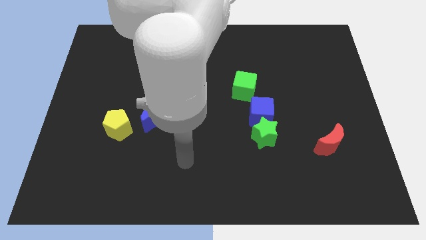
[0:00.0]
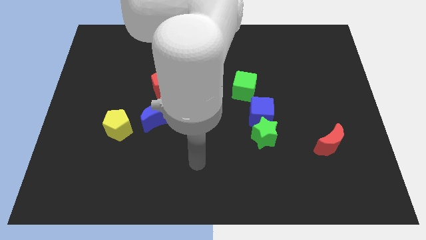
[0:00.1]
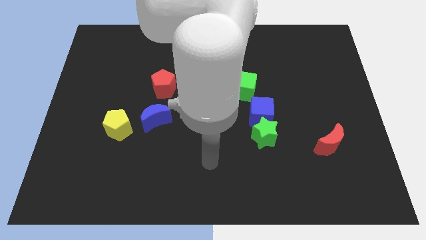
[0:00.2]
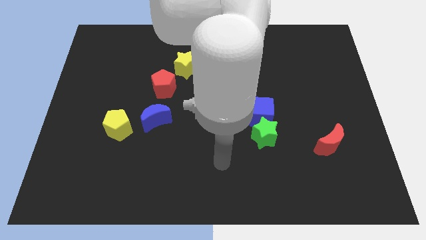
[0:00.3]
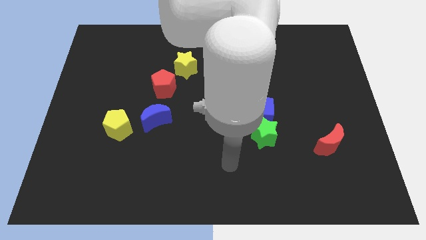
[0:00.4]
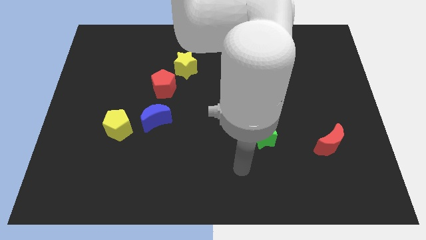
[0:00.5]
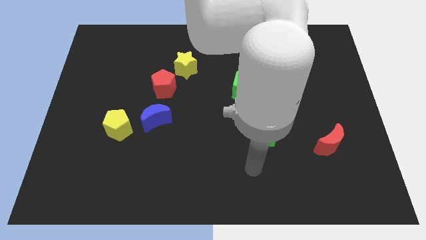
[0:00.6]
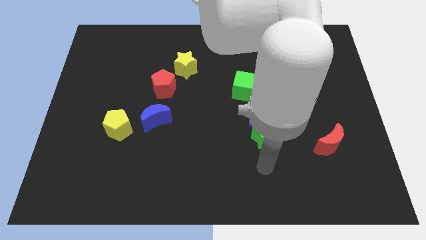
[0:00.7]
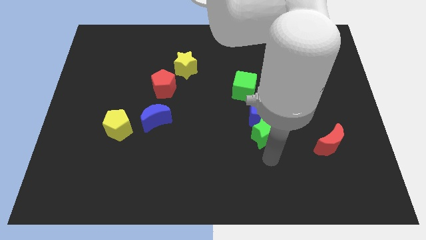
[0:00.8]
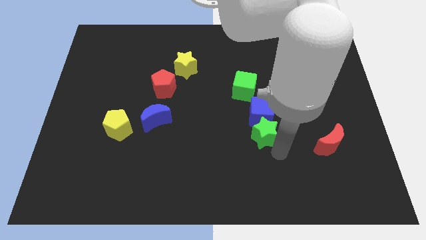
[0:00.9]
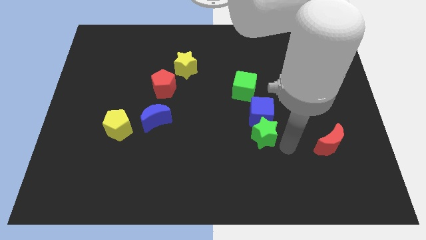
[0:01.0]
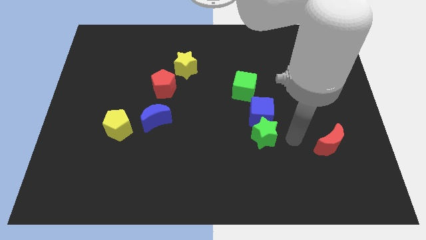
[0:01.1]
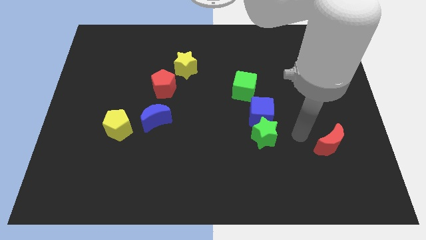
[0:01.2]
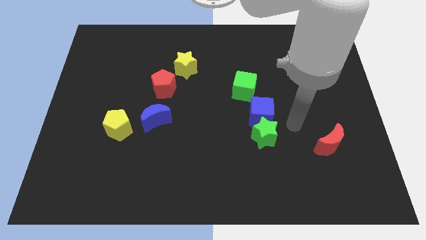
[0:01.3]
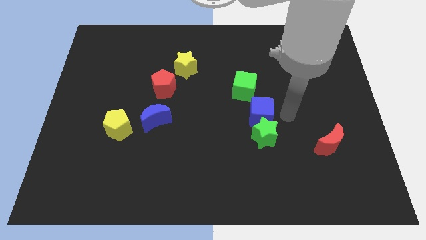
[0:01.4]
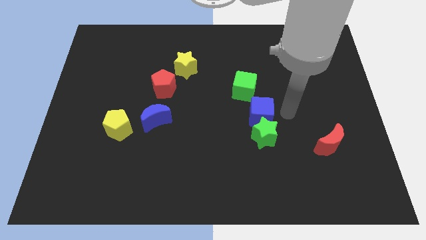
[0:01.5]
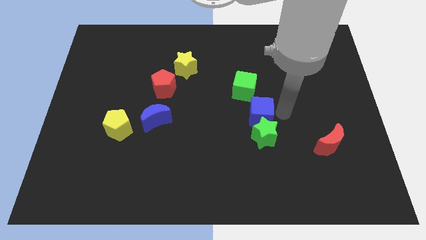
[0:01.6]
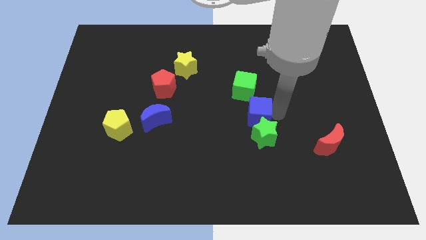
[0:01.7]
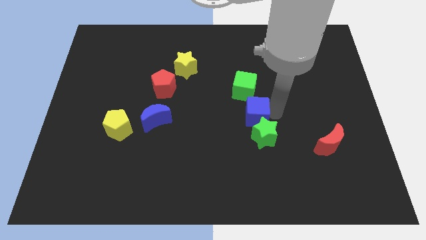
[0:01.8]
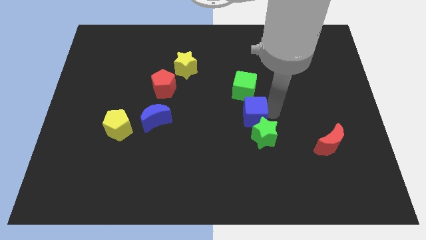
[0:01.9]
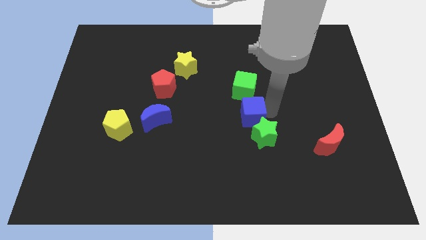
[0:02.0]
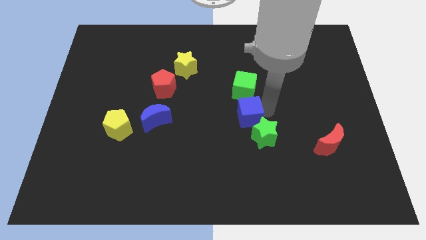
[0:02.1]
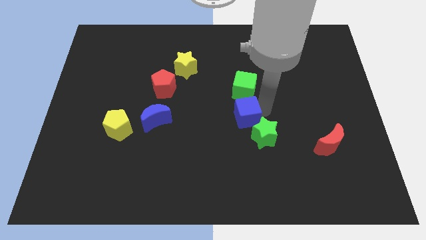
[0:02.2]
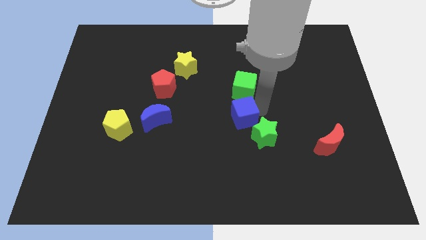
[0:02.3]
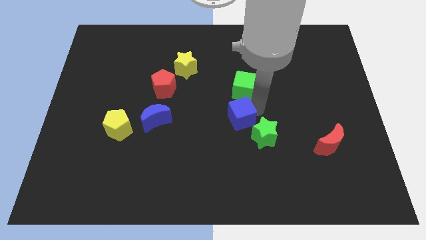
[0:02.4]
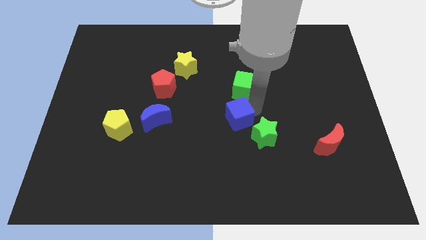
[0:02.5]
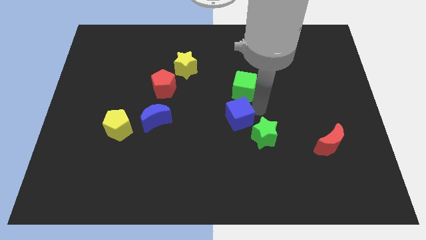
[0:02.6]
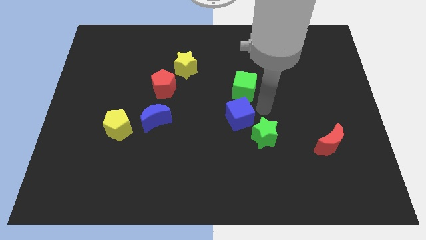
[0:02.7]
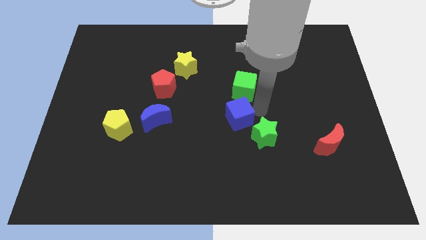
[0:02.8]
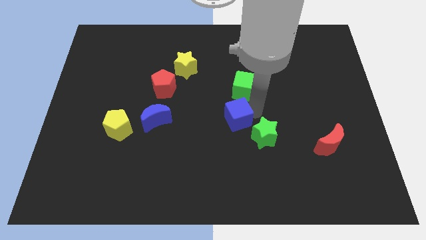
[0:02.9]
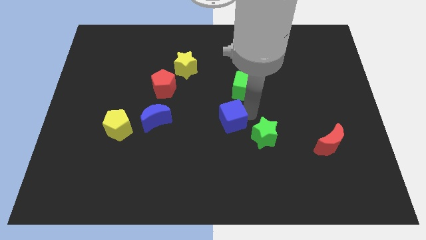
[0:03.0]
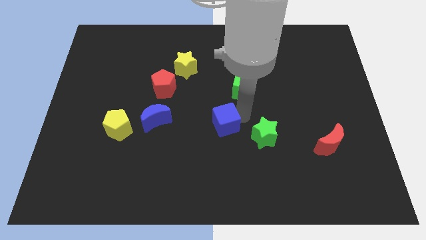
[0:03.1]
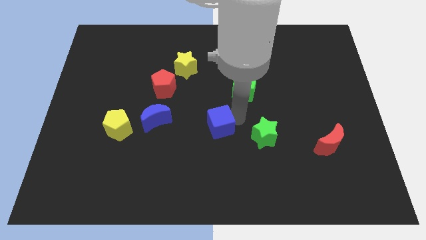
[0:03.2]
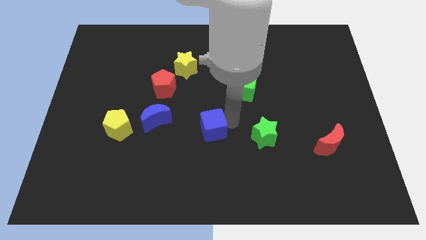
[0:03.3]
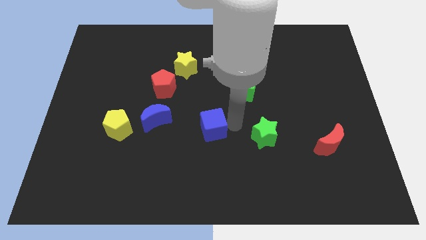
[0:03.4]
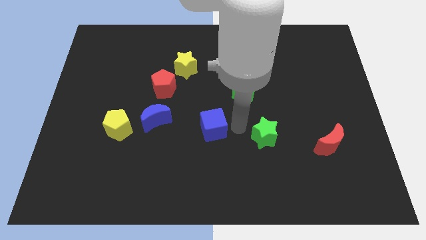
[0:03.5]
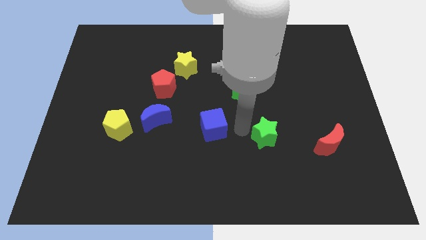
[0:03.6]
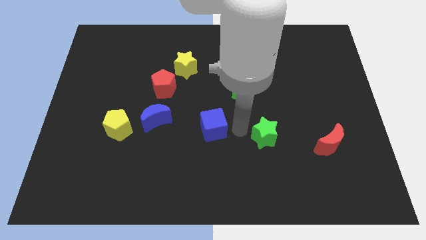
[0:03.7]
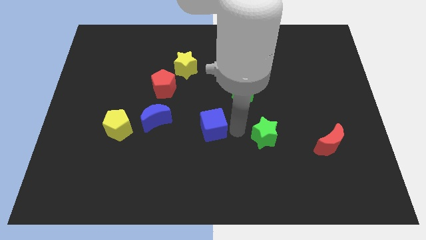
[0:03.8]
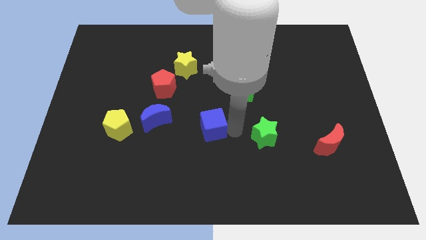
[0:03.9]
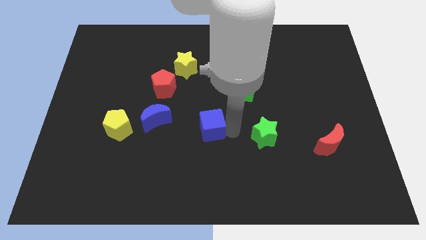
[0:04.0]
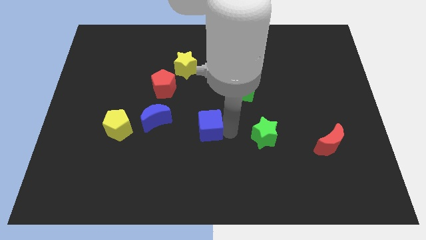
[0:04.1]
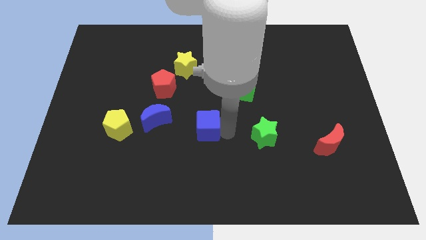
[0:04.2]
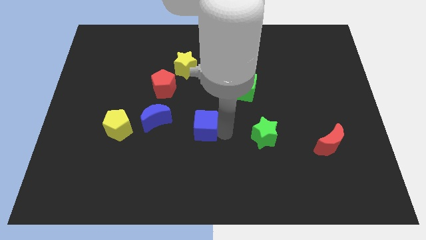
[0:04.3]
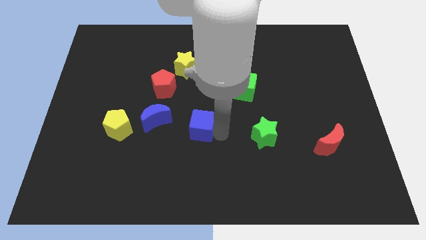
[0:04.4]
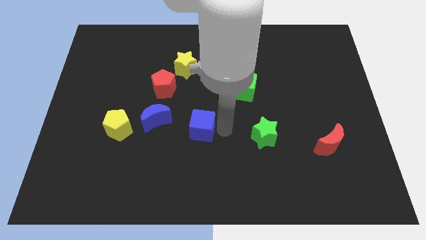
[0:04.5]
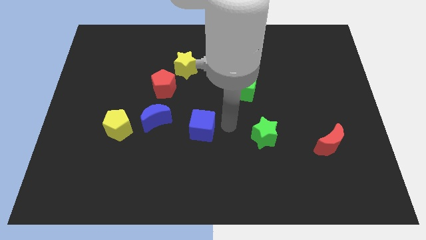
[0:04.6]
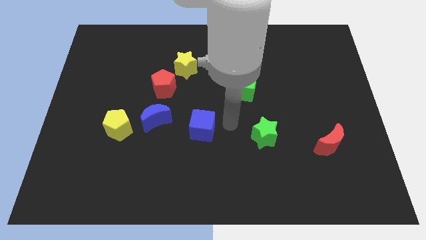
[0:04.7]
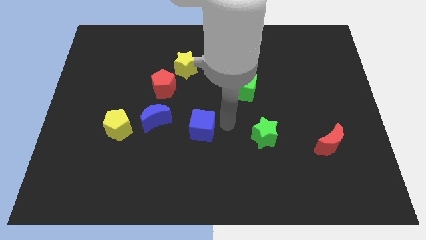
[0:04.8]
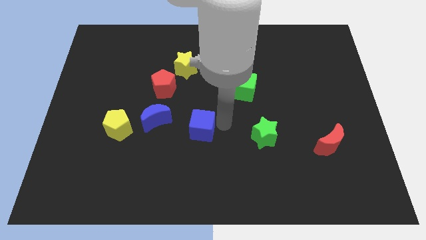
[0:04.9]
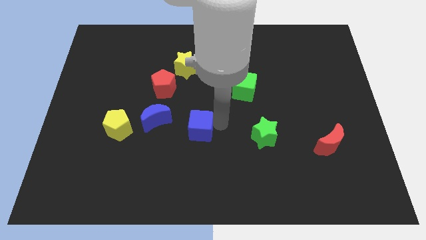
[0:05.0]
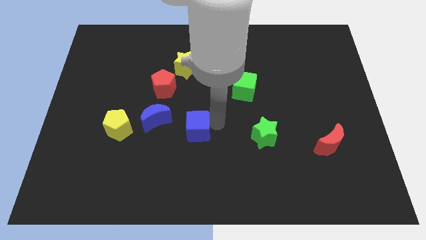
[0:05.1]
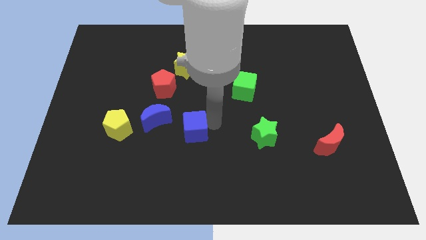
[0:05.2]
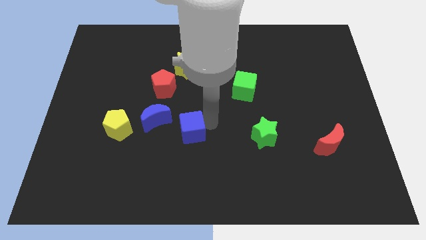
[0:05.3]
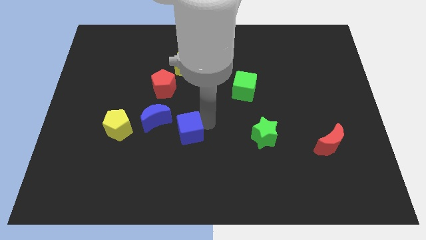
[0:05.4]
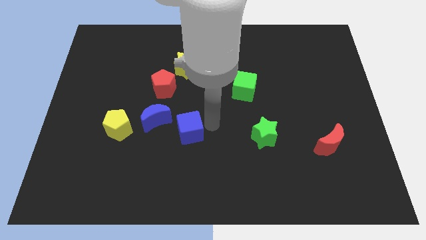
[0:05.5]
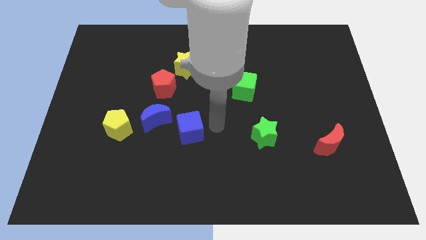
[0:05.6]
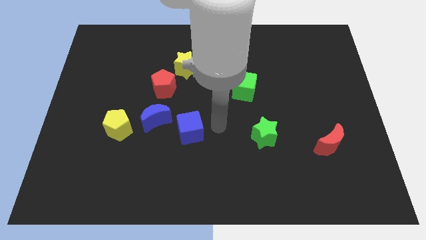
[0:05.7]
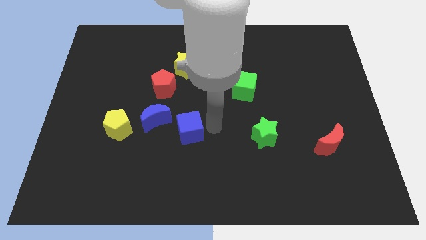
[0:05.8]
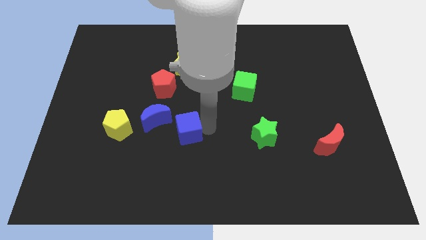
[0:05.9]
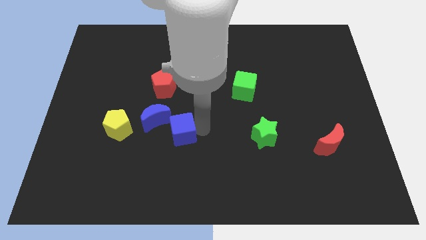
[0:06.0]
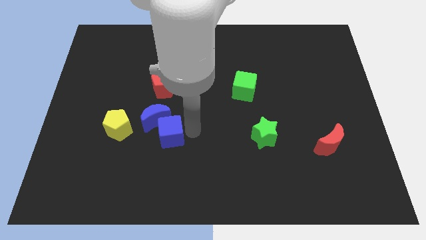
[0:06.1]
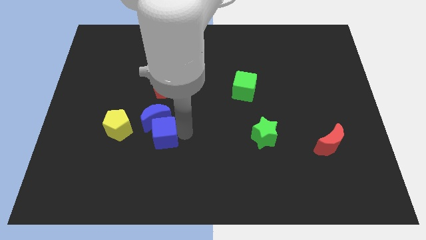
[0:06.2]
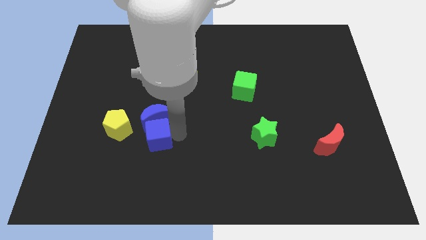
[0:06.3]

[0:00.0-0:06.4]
move the blue cube to the bottom left side of the blue moon

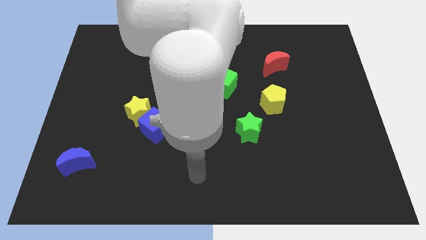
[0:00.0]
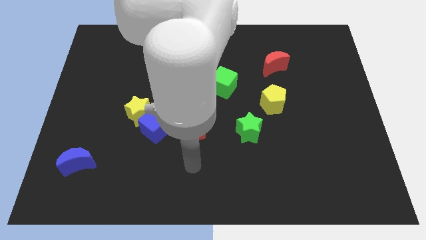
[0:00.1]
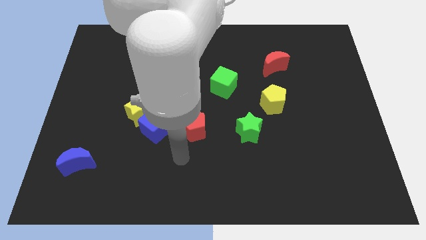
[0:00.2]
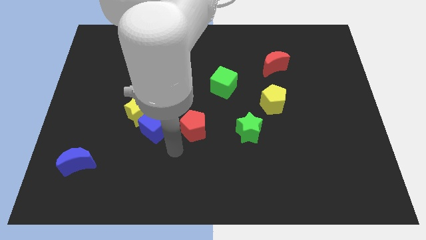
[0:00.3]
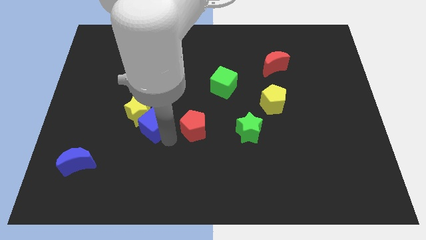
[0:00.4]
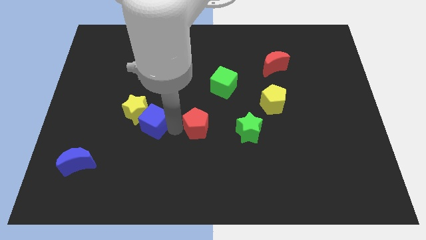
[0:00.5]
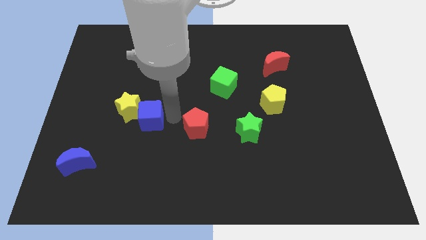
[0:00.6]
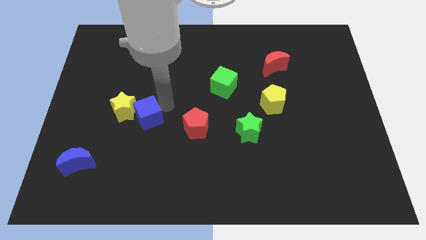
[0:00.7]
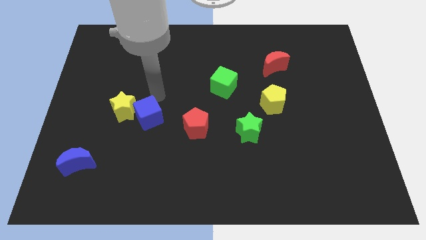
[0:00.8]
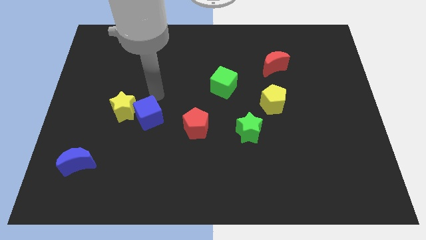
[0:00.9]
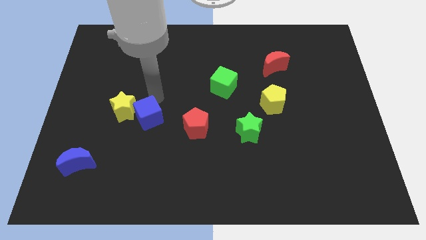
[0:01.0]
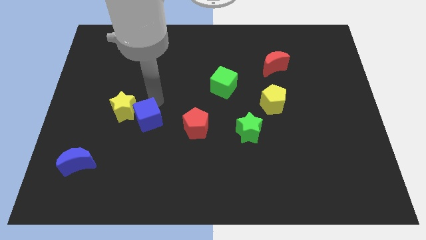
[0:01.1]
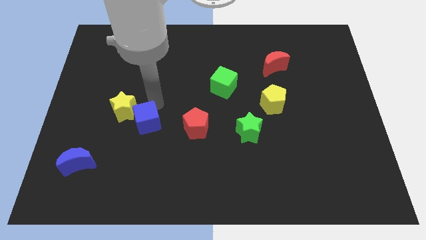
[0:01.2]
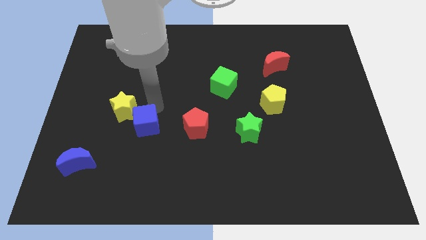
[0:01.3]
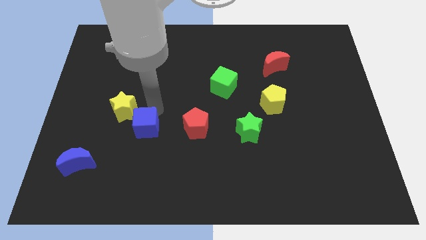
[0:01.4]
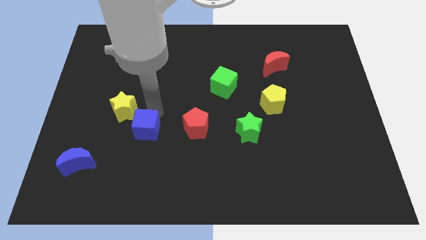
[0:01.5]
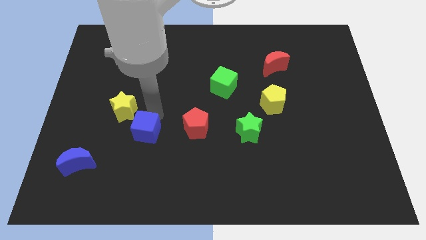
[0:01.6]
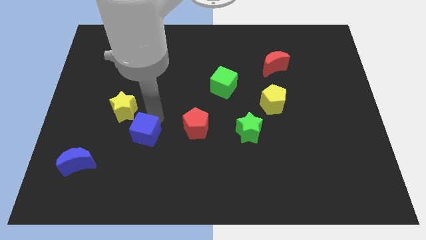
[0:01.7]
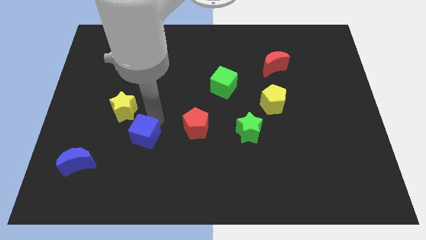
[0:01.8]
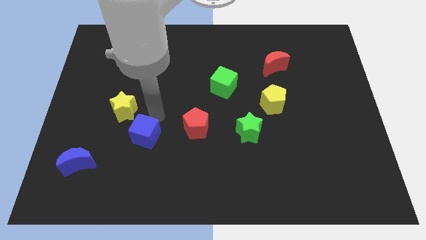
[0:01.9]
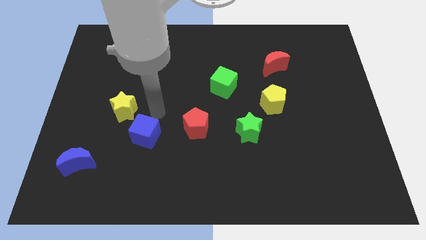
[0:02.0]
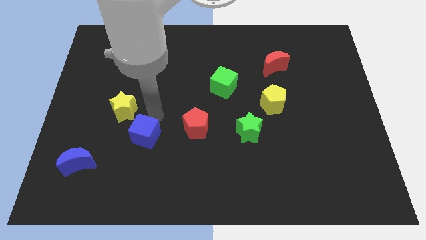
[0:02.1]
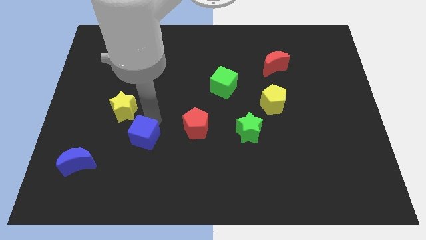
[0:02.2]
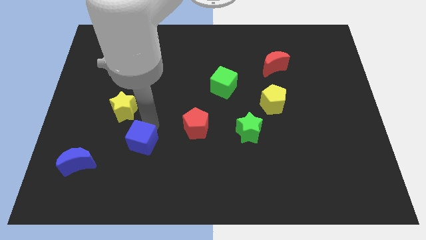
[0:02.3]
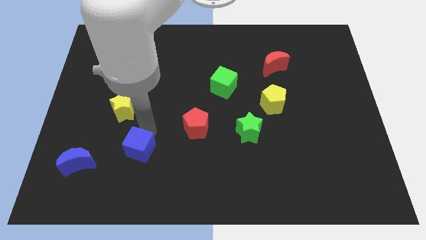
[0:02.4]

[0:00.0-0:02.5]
push the blue cube just right of the blue moon
